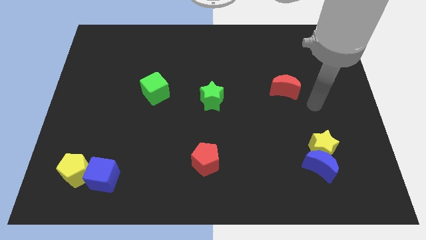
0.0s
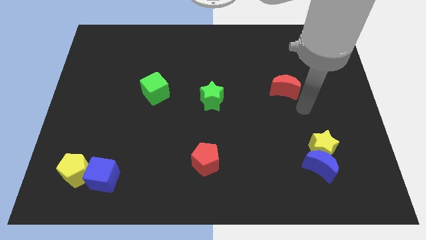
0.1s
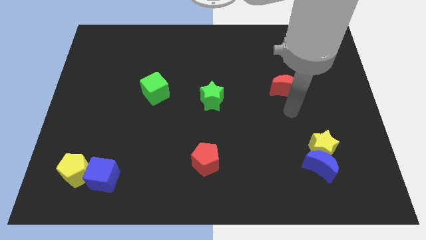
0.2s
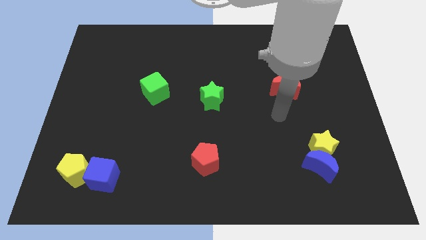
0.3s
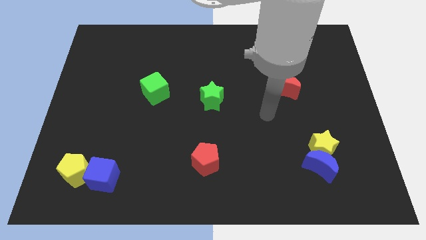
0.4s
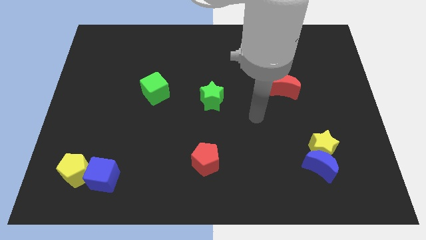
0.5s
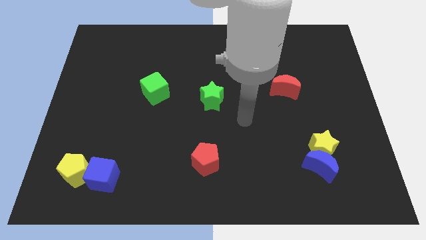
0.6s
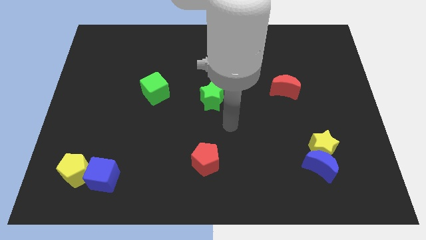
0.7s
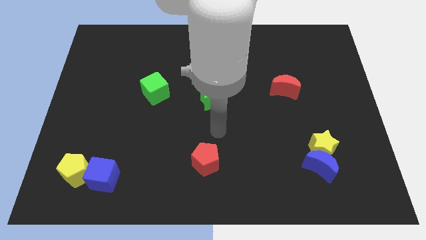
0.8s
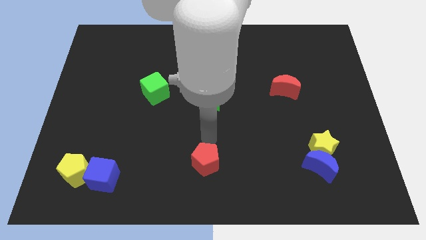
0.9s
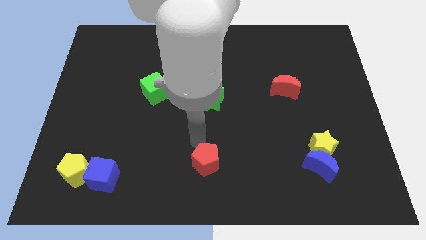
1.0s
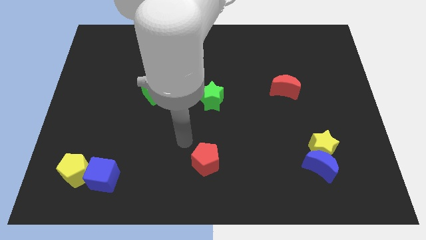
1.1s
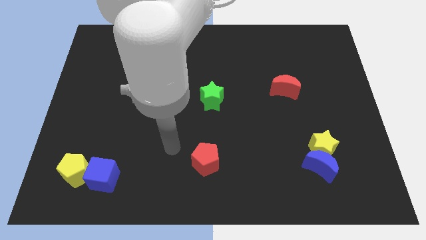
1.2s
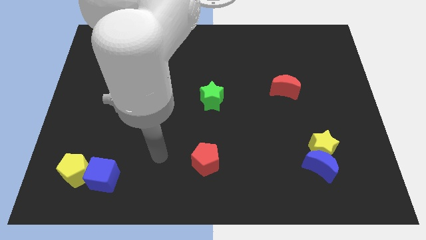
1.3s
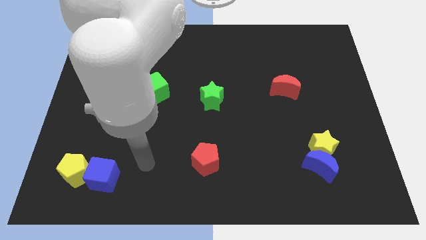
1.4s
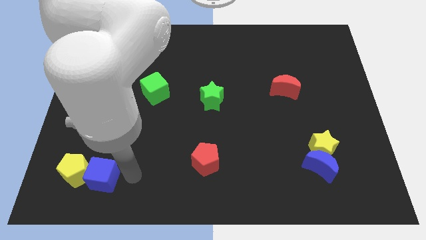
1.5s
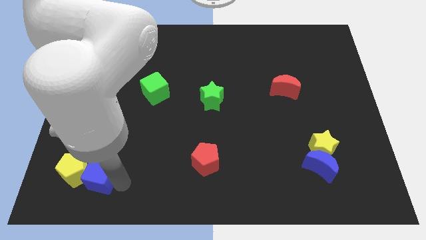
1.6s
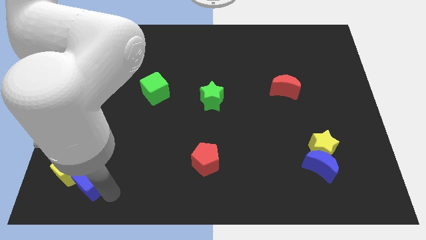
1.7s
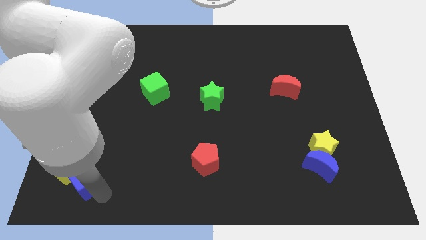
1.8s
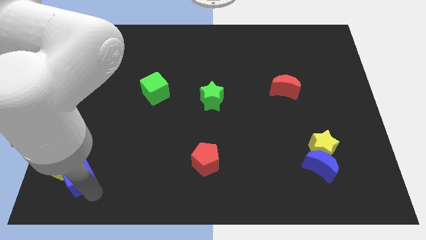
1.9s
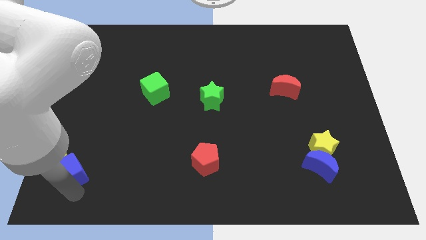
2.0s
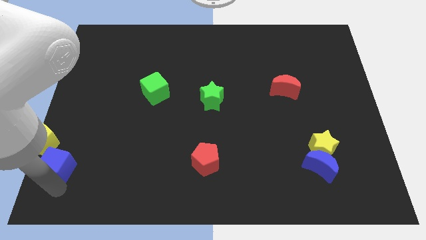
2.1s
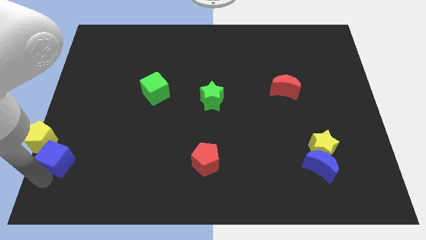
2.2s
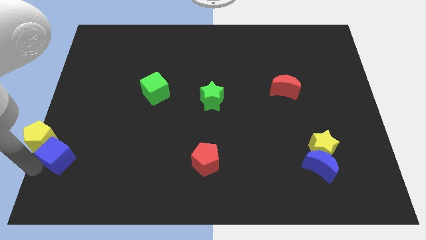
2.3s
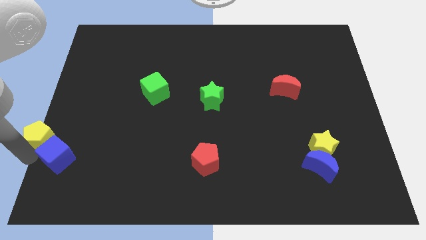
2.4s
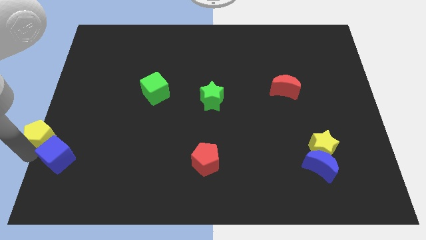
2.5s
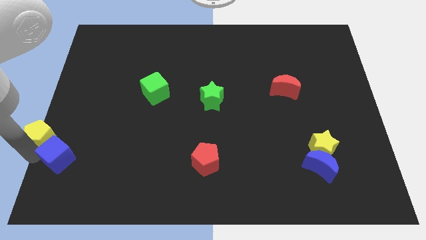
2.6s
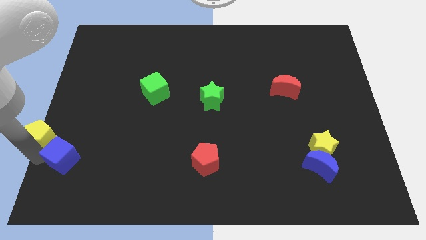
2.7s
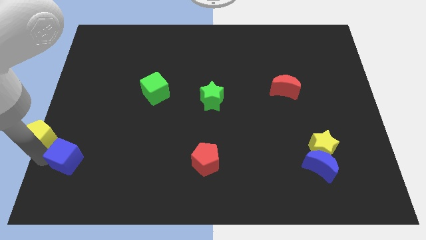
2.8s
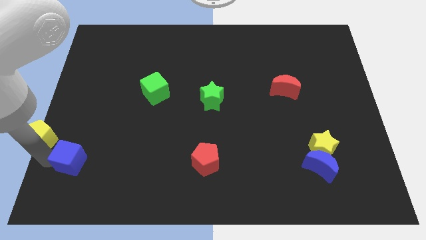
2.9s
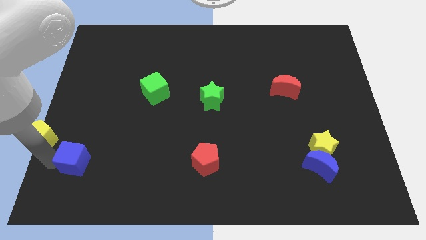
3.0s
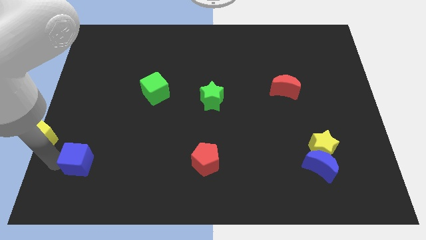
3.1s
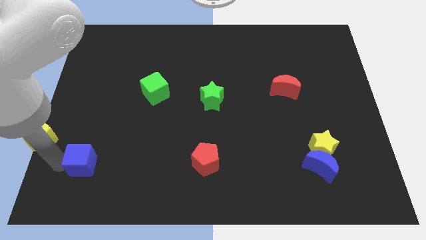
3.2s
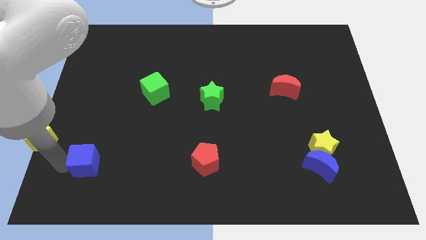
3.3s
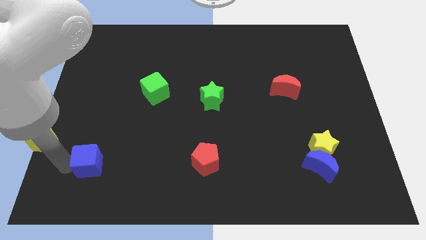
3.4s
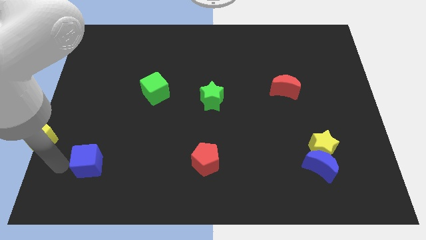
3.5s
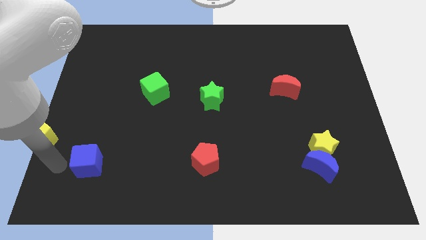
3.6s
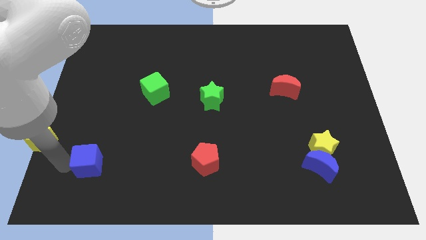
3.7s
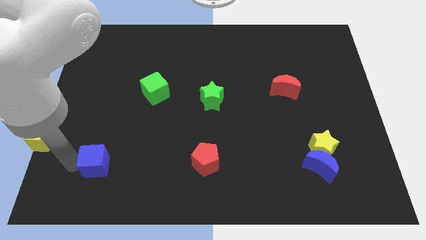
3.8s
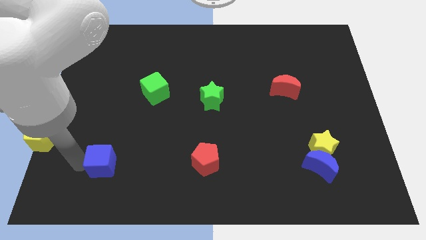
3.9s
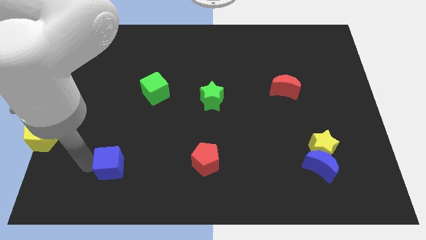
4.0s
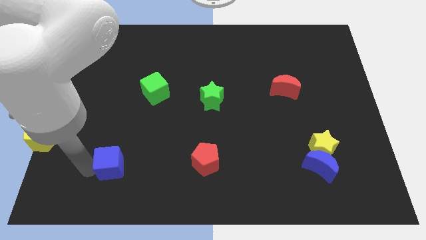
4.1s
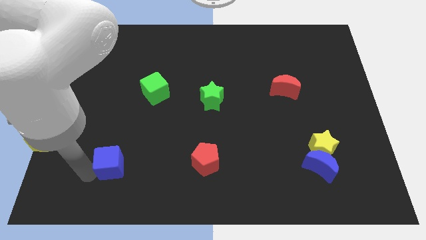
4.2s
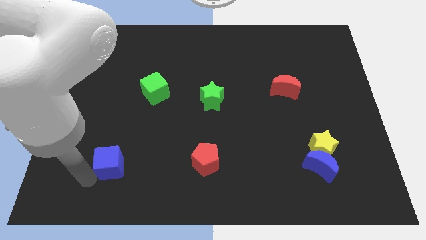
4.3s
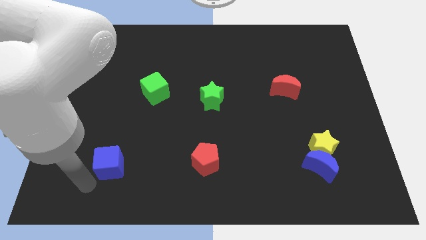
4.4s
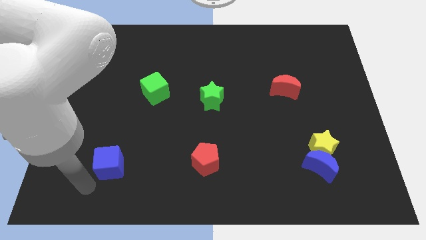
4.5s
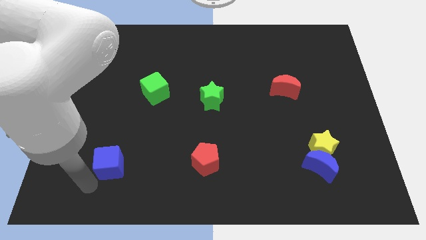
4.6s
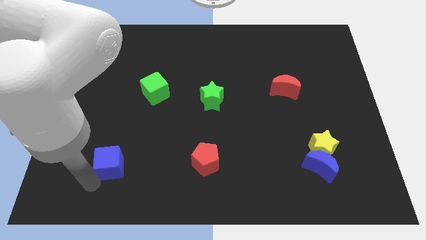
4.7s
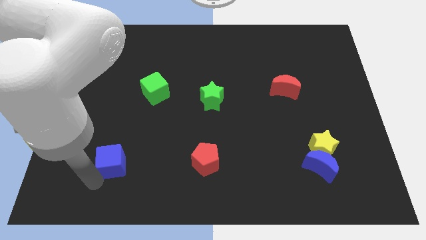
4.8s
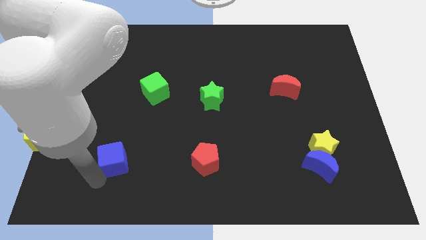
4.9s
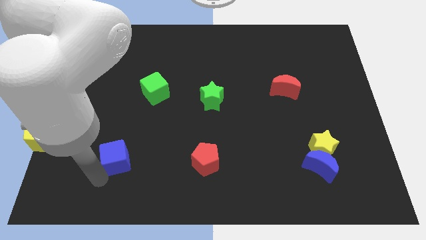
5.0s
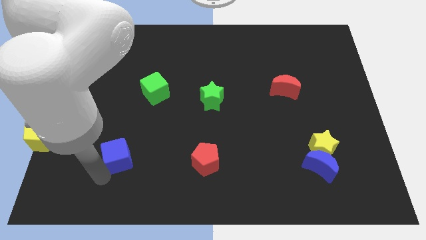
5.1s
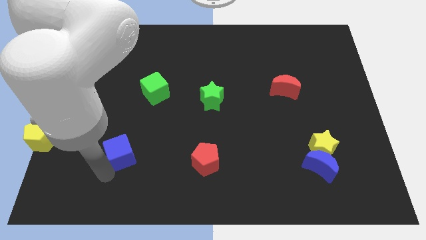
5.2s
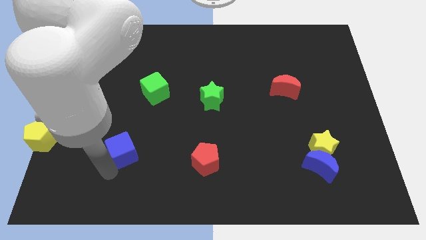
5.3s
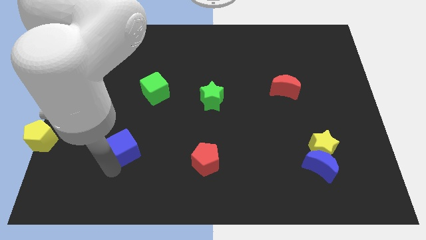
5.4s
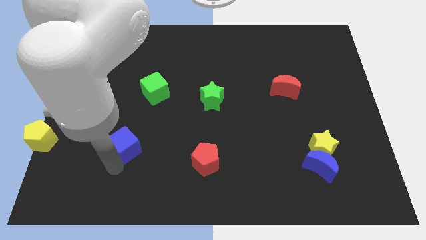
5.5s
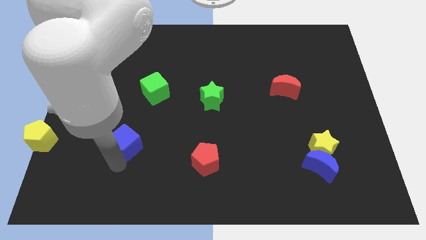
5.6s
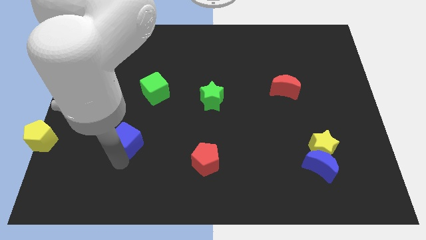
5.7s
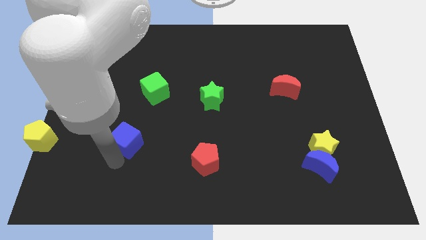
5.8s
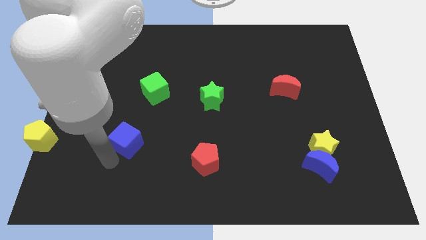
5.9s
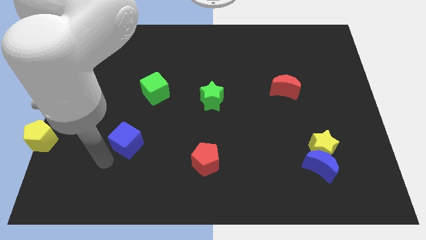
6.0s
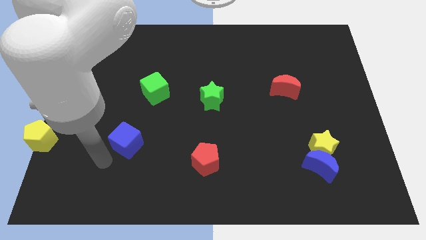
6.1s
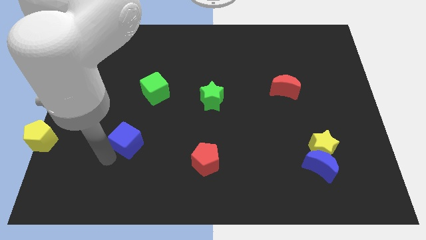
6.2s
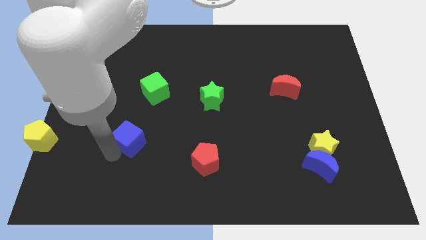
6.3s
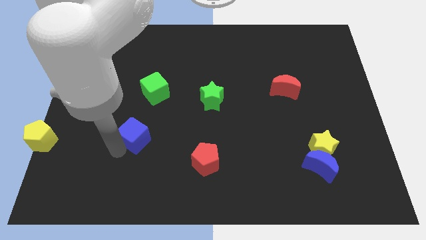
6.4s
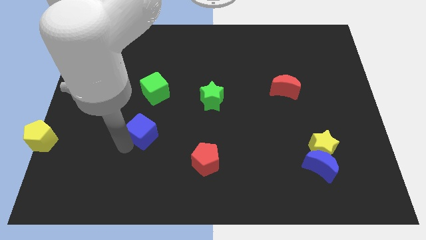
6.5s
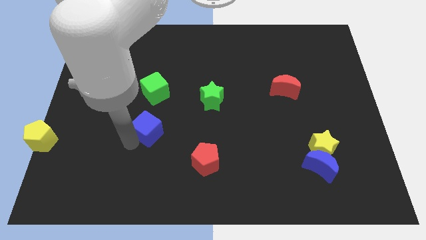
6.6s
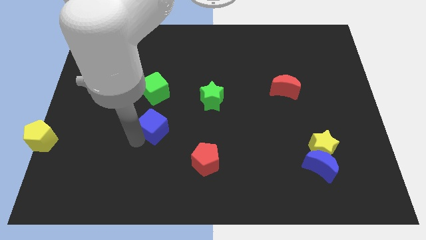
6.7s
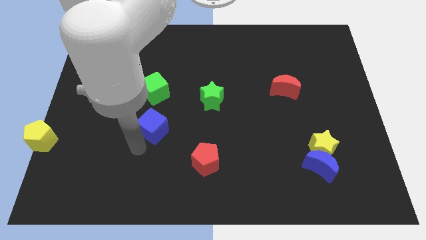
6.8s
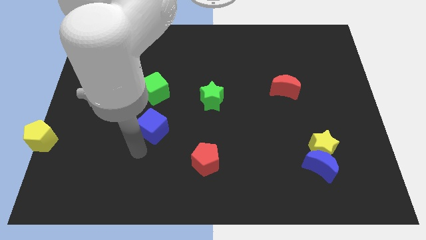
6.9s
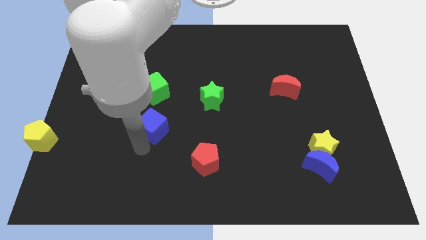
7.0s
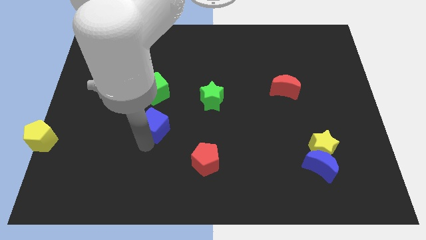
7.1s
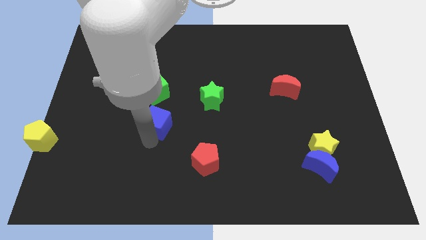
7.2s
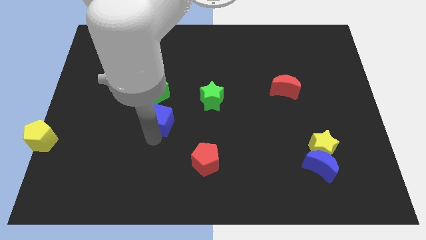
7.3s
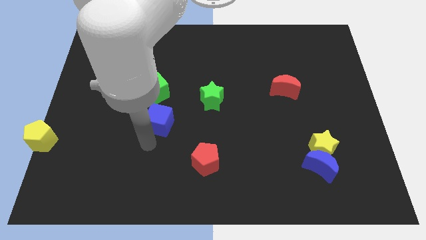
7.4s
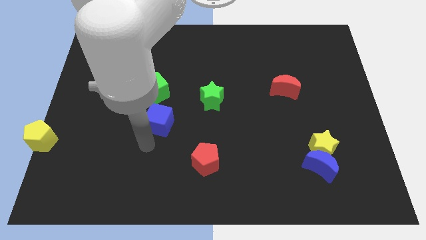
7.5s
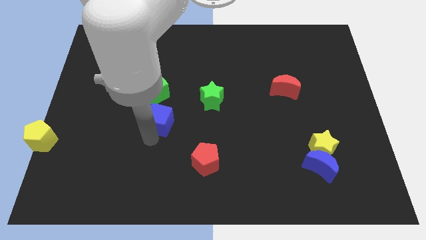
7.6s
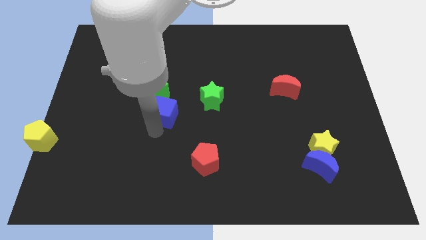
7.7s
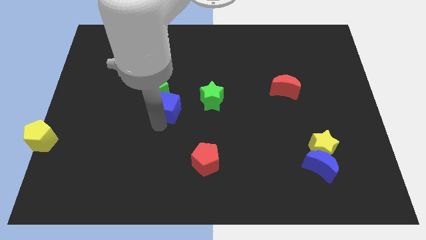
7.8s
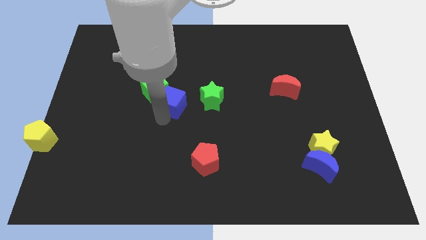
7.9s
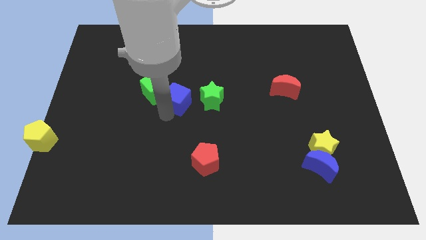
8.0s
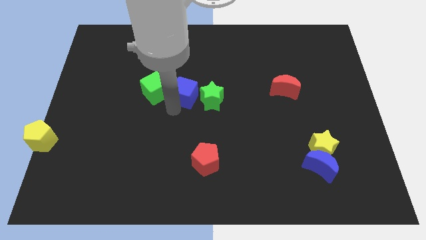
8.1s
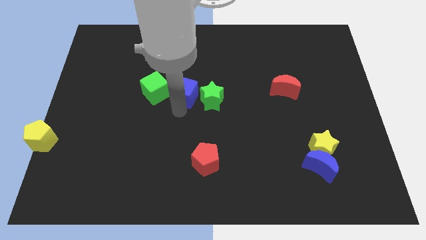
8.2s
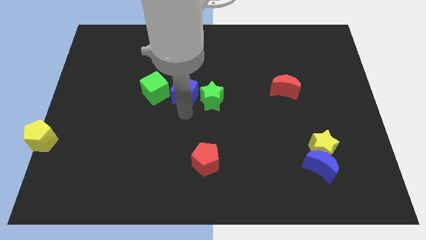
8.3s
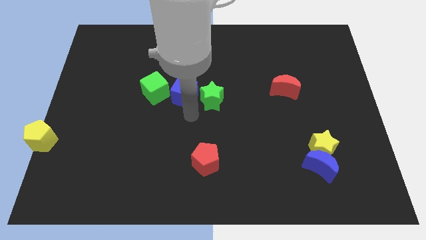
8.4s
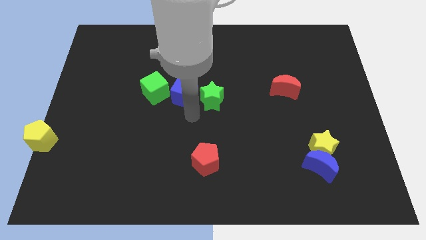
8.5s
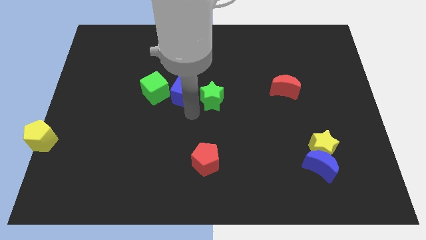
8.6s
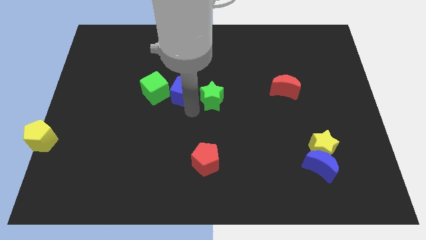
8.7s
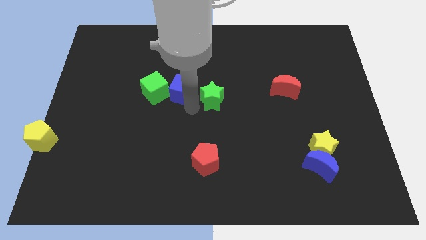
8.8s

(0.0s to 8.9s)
put the blue cube diagonally up and to the right of the green cube
